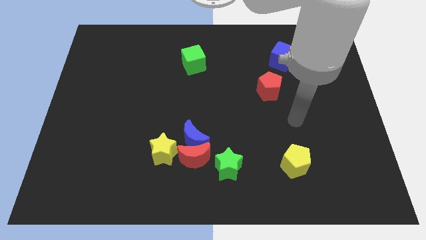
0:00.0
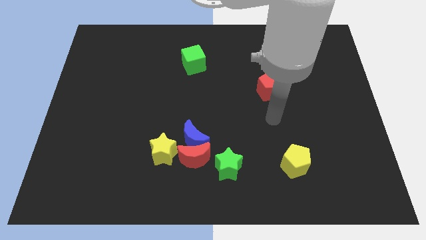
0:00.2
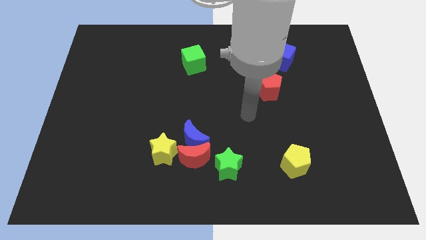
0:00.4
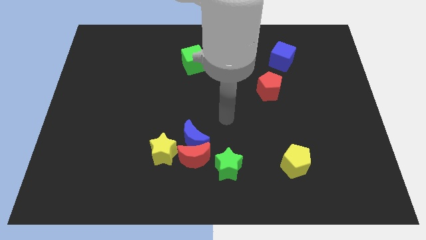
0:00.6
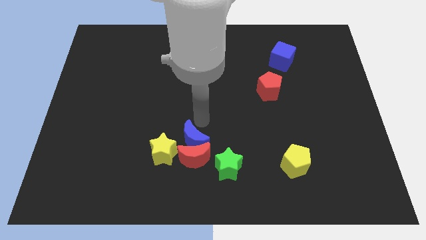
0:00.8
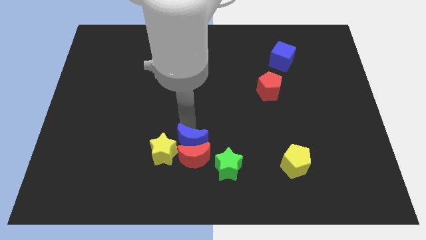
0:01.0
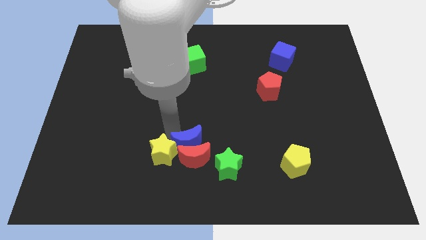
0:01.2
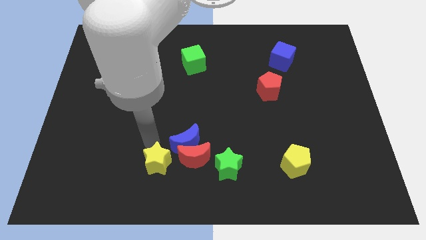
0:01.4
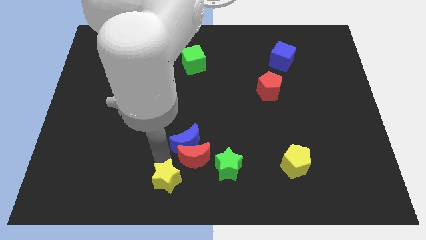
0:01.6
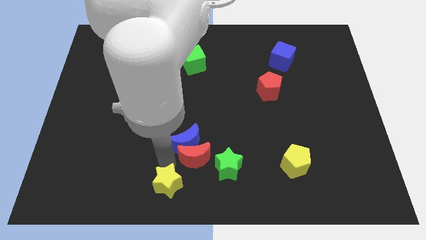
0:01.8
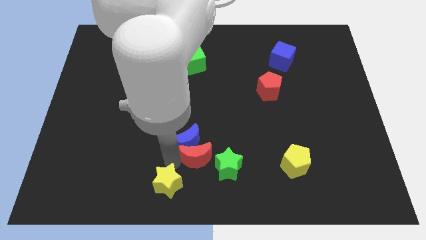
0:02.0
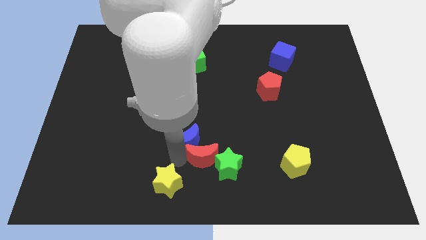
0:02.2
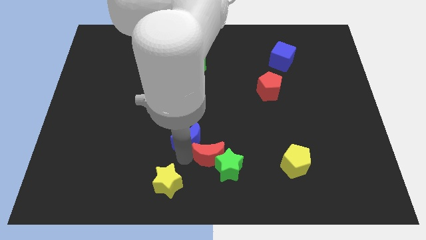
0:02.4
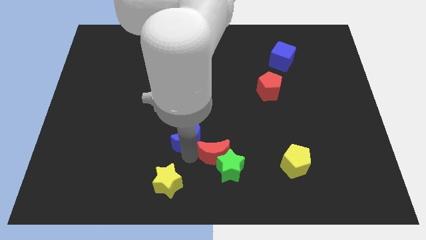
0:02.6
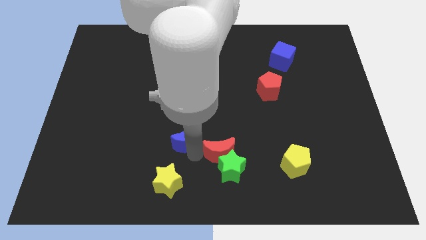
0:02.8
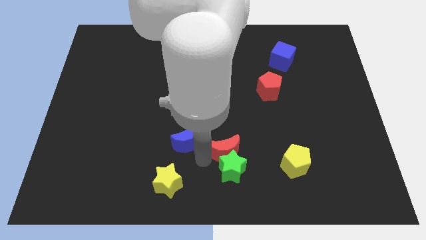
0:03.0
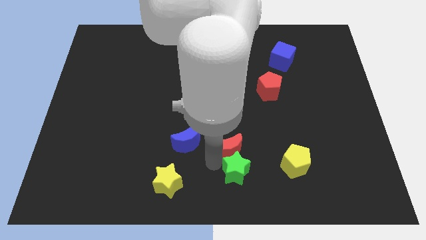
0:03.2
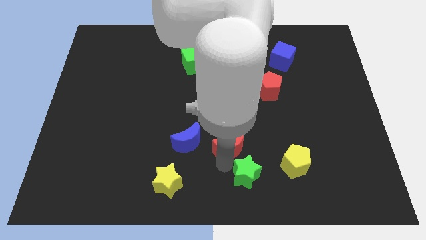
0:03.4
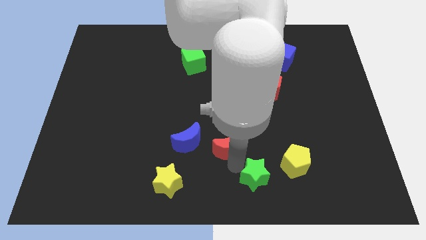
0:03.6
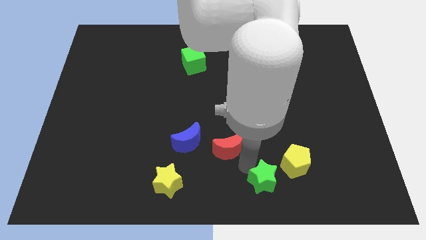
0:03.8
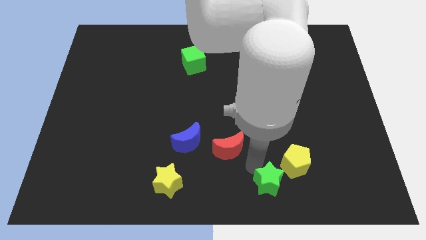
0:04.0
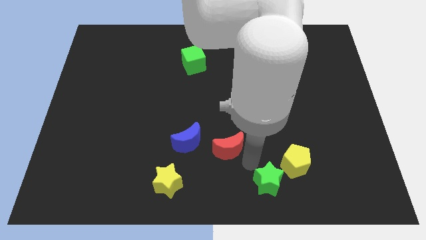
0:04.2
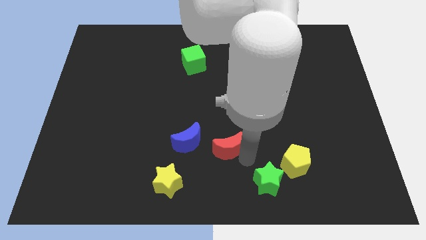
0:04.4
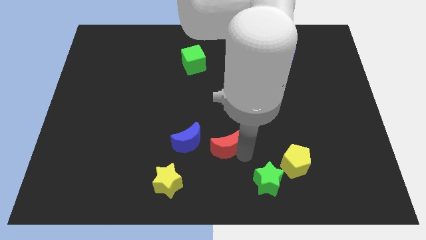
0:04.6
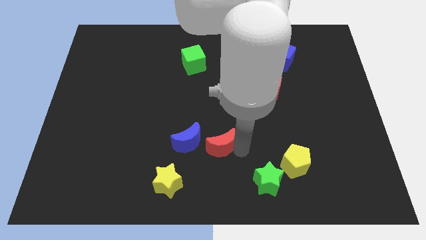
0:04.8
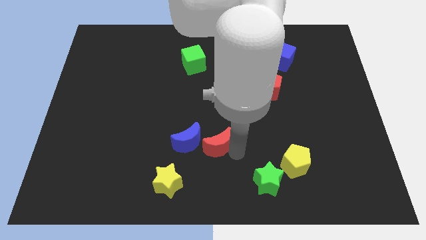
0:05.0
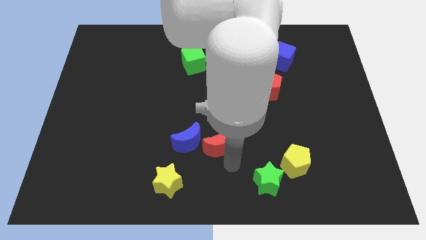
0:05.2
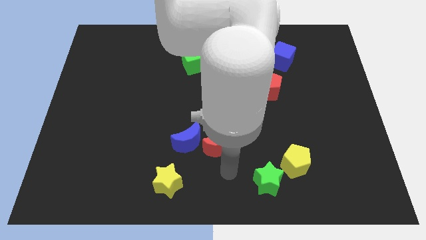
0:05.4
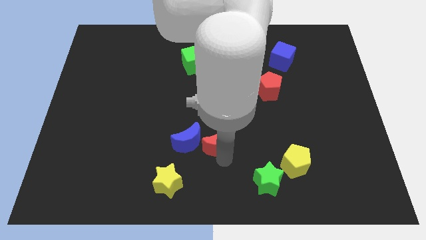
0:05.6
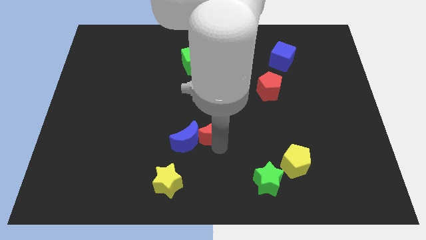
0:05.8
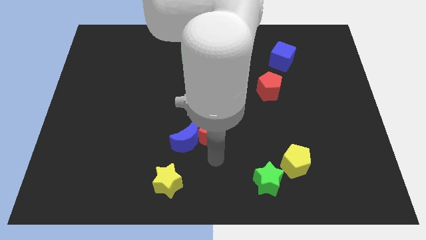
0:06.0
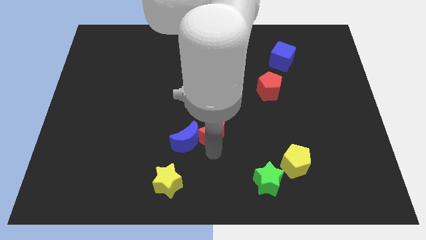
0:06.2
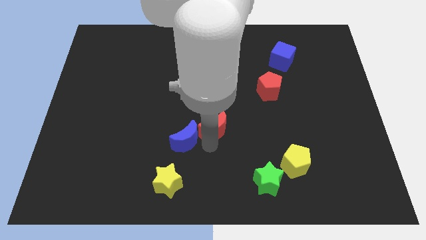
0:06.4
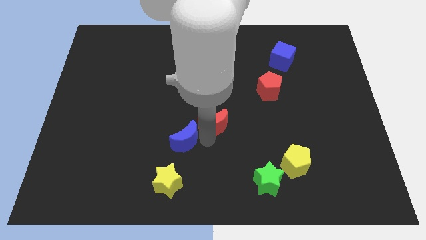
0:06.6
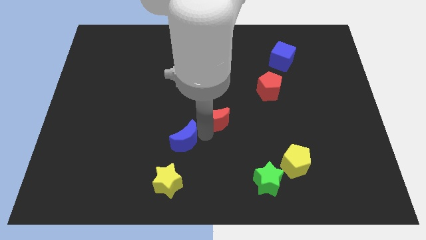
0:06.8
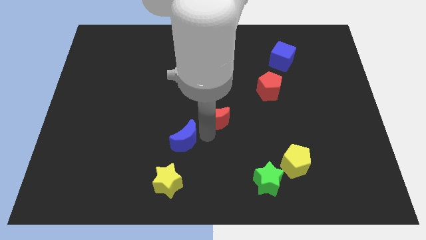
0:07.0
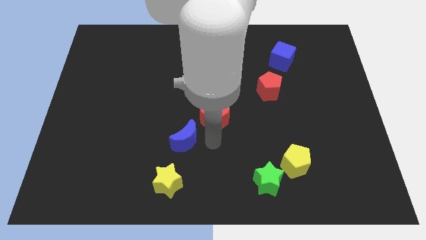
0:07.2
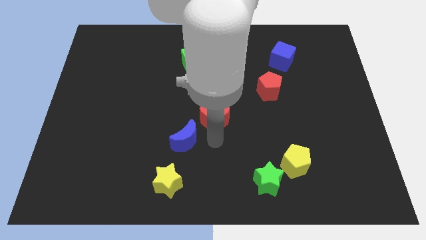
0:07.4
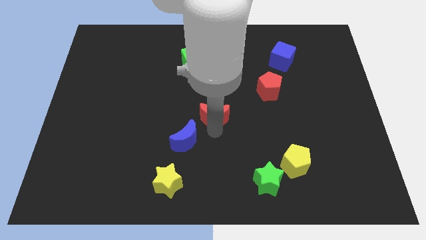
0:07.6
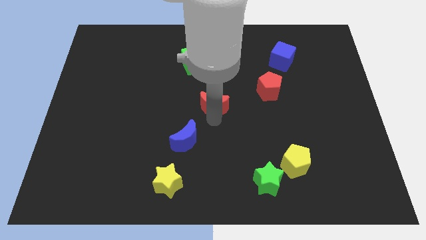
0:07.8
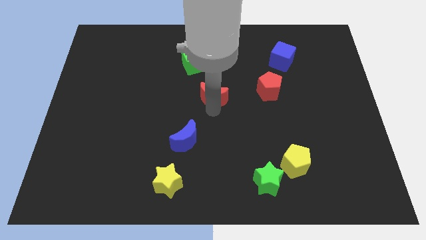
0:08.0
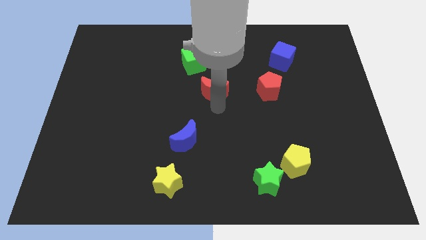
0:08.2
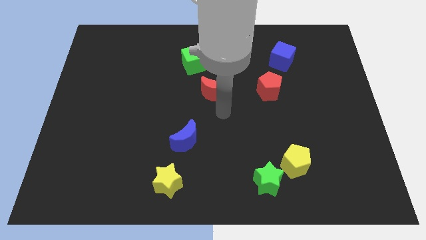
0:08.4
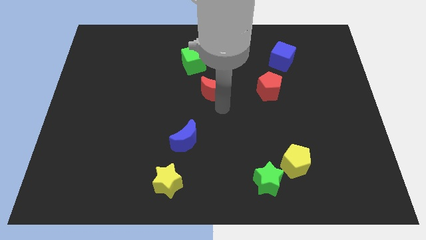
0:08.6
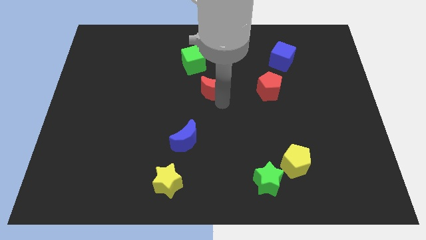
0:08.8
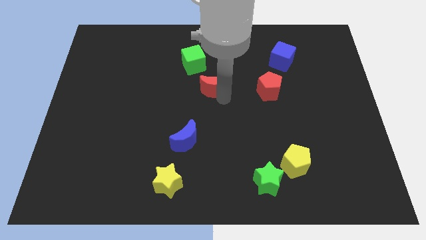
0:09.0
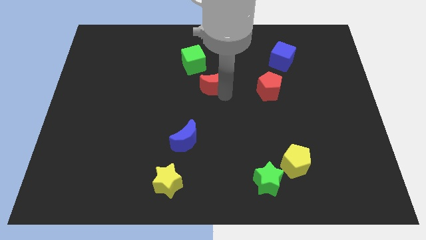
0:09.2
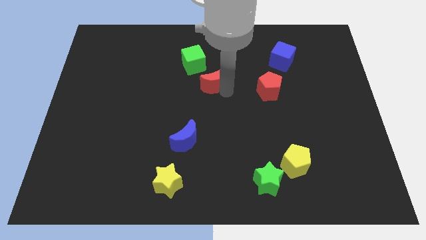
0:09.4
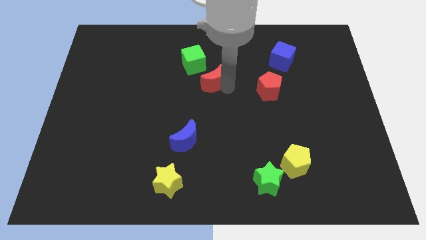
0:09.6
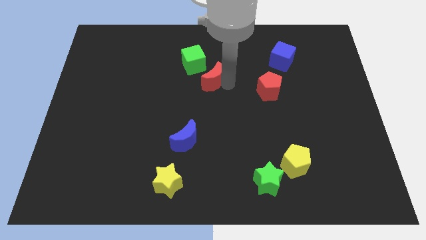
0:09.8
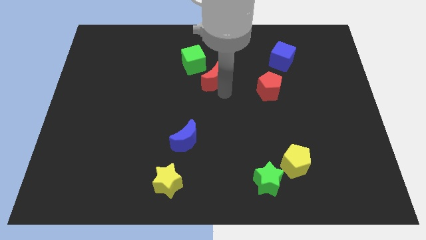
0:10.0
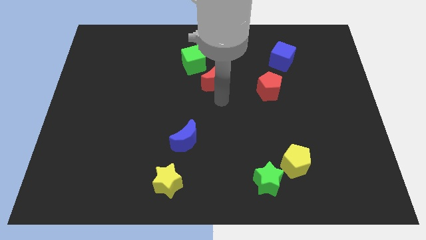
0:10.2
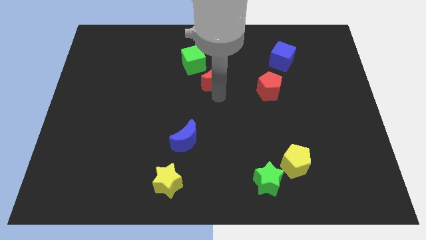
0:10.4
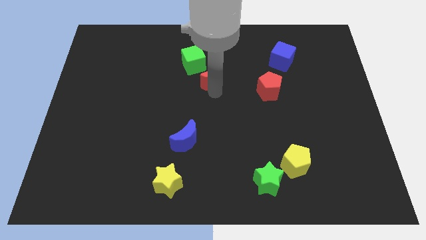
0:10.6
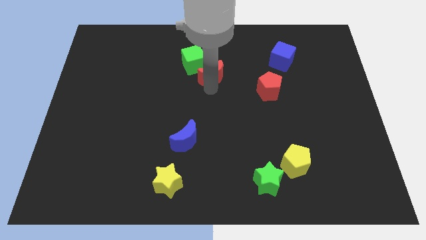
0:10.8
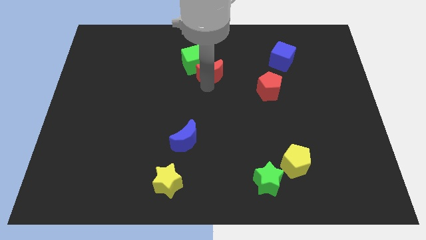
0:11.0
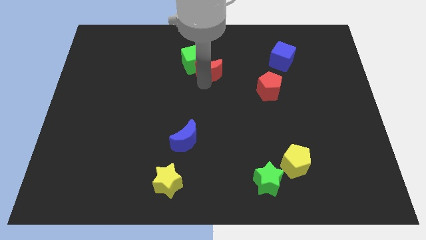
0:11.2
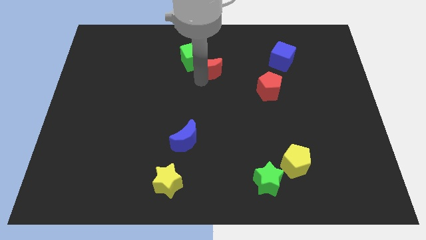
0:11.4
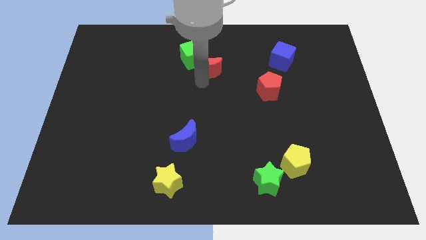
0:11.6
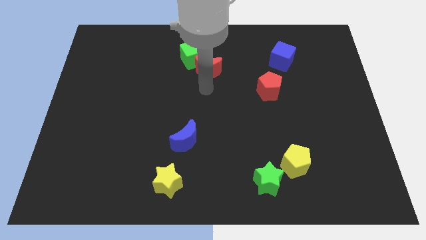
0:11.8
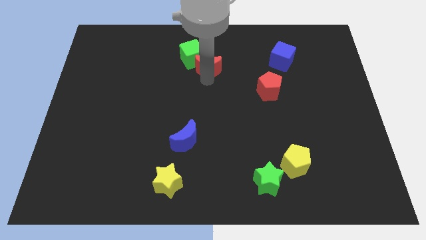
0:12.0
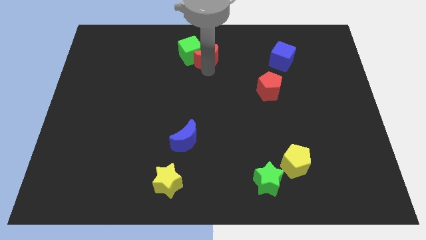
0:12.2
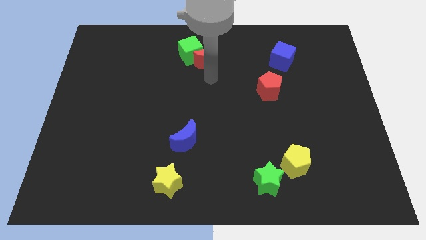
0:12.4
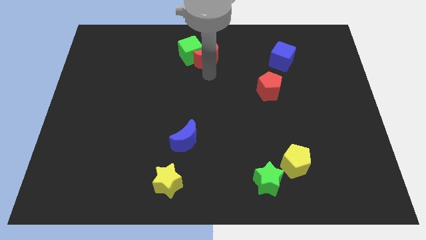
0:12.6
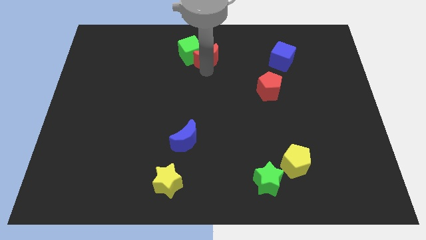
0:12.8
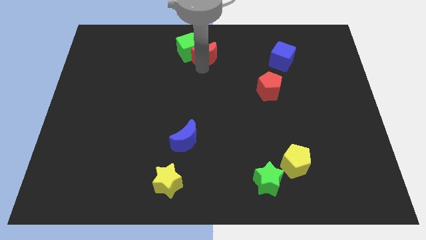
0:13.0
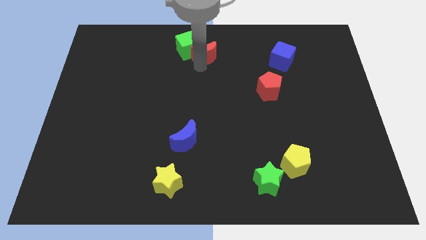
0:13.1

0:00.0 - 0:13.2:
slide the red moon to the top

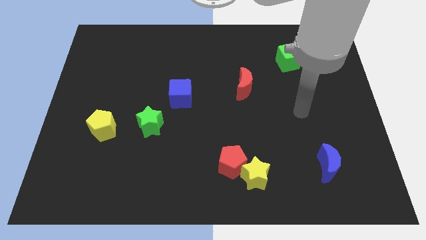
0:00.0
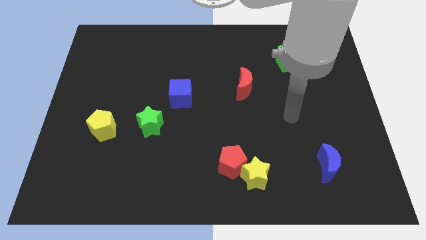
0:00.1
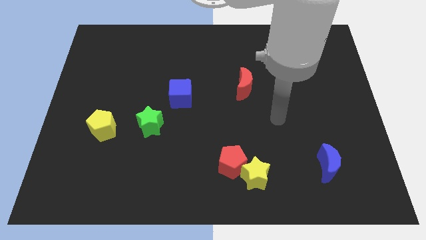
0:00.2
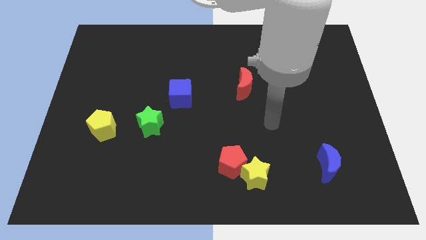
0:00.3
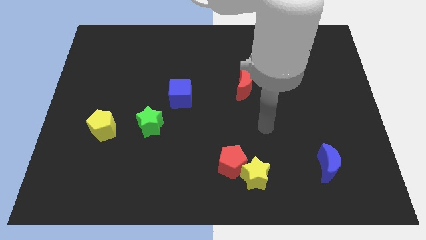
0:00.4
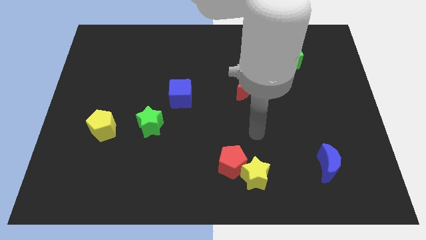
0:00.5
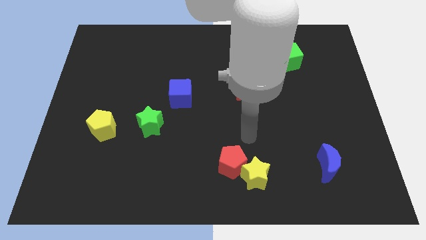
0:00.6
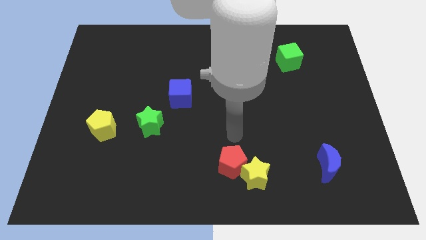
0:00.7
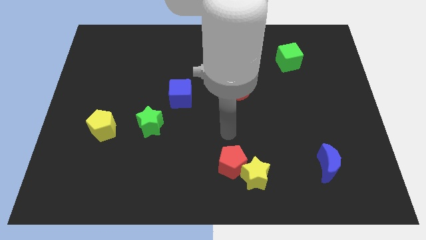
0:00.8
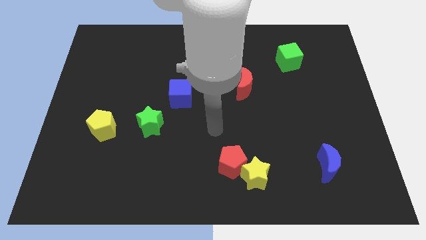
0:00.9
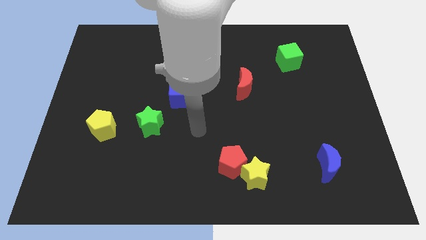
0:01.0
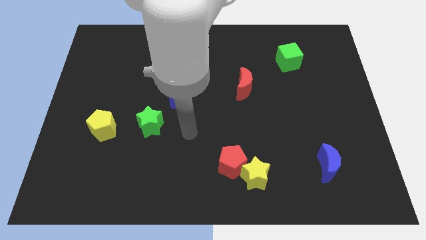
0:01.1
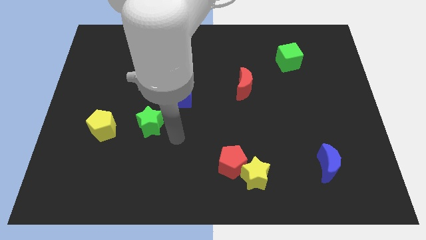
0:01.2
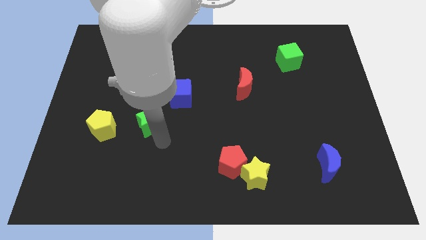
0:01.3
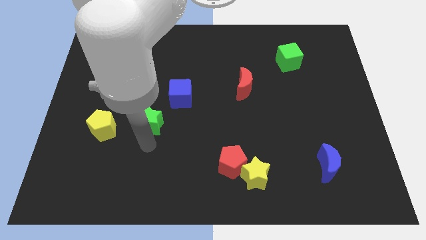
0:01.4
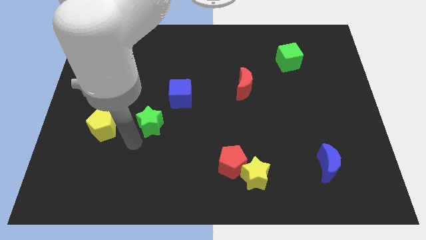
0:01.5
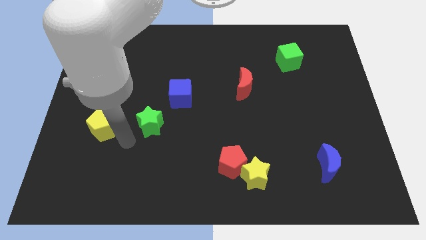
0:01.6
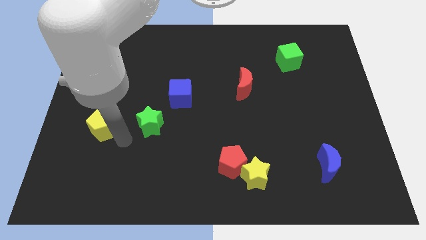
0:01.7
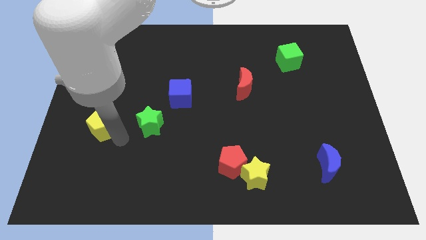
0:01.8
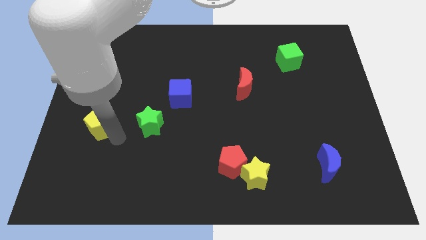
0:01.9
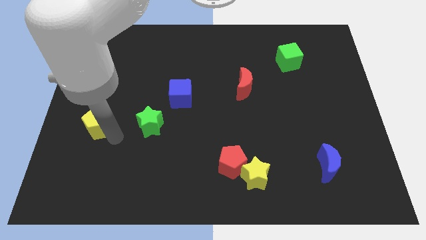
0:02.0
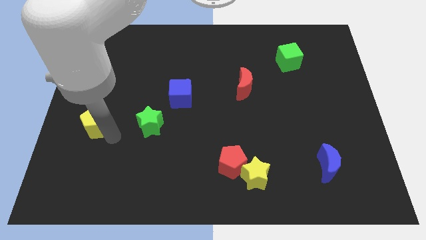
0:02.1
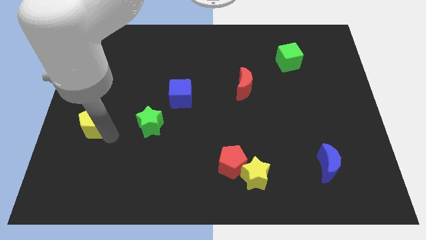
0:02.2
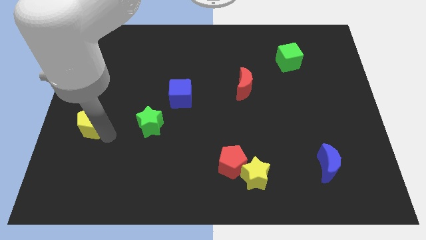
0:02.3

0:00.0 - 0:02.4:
slide the yellow pentagon to the left side
